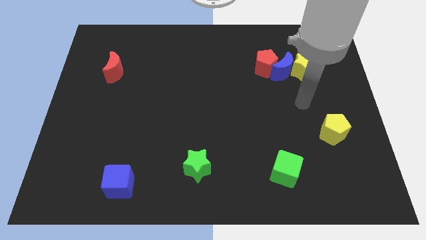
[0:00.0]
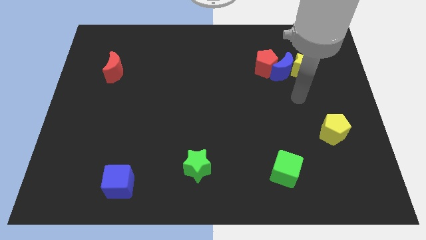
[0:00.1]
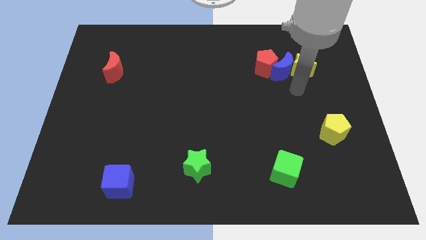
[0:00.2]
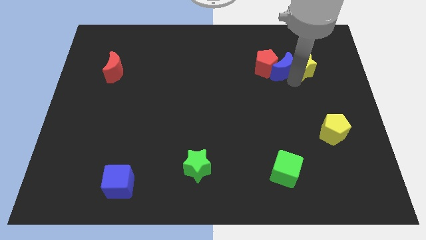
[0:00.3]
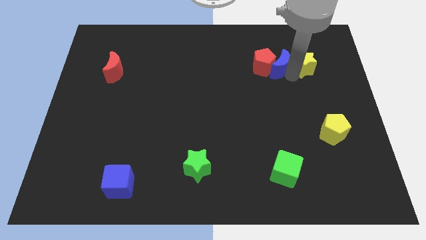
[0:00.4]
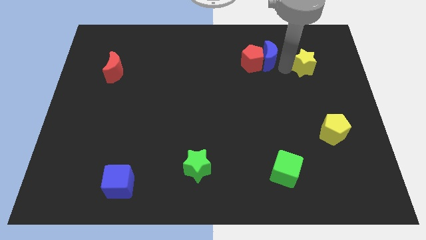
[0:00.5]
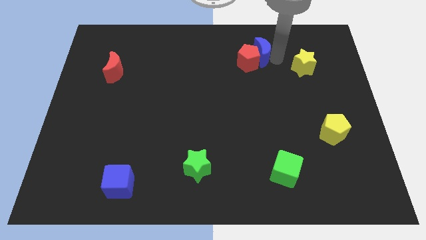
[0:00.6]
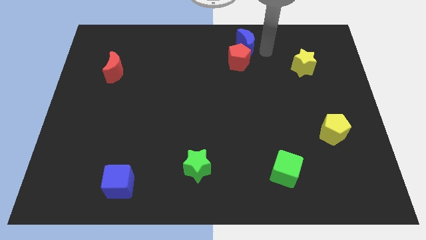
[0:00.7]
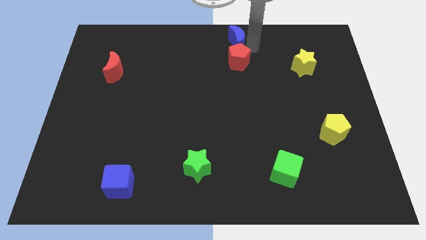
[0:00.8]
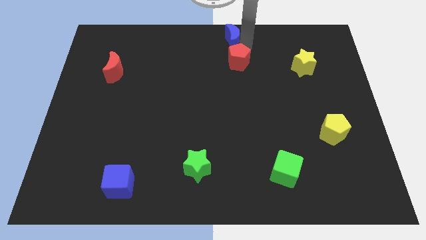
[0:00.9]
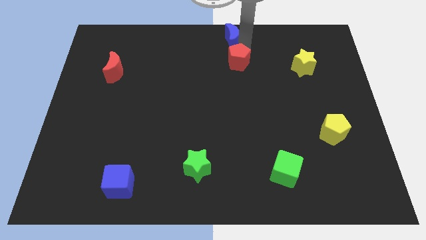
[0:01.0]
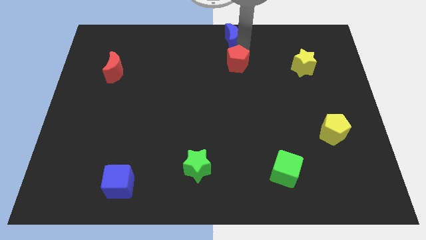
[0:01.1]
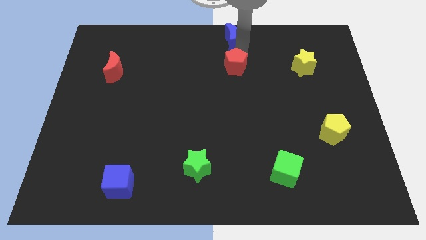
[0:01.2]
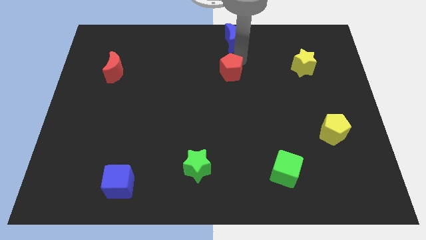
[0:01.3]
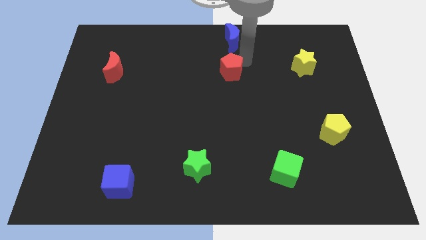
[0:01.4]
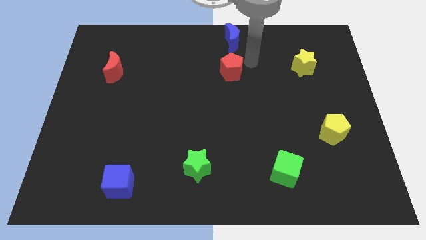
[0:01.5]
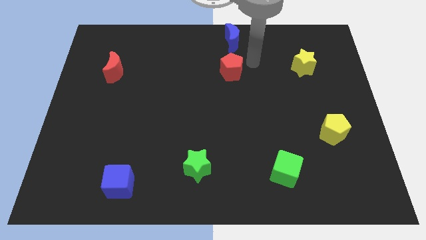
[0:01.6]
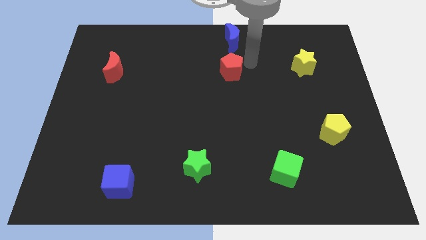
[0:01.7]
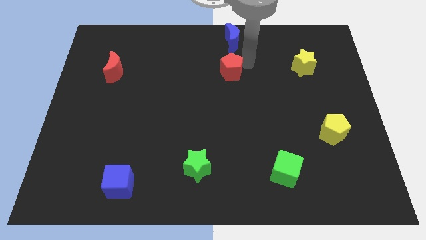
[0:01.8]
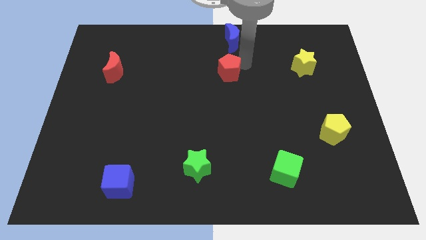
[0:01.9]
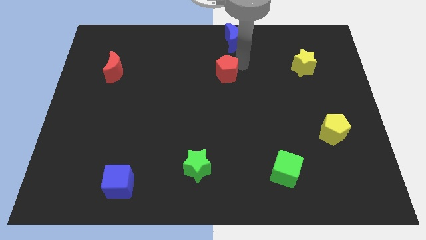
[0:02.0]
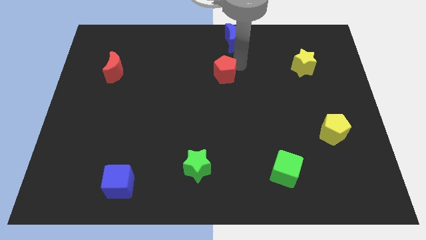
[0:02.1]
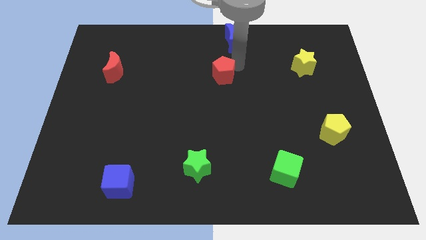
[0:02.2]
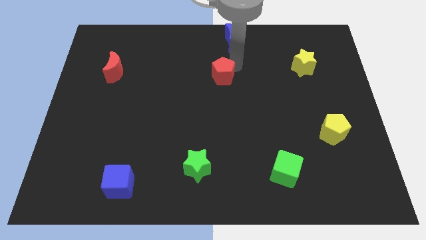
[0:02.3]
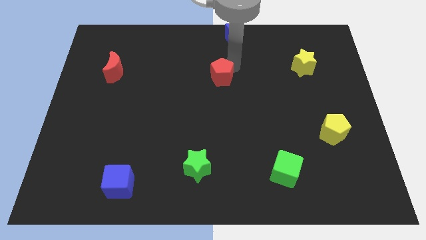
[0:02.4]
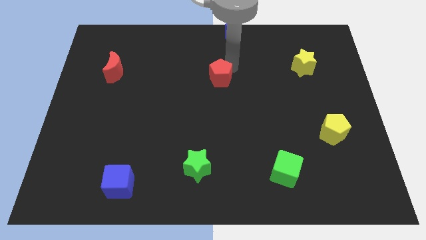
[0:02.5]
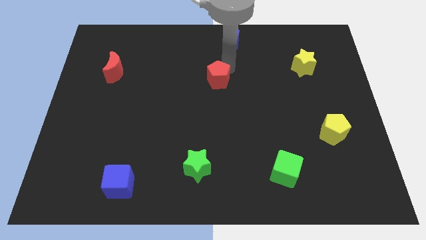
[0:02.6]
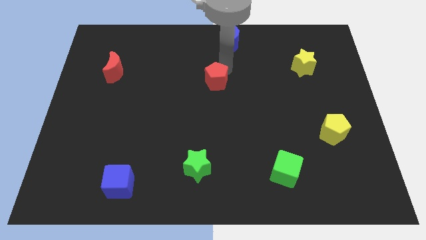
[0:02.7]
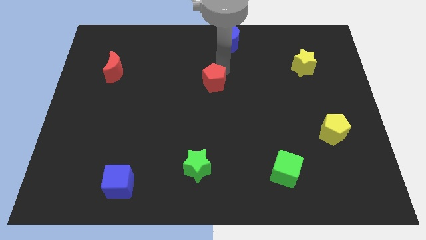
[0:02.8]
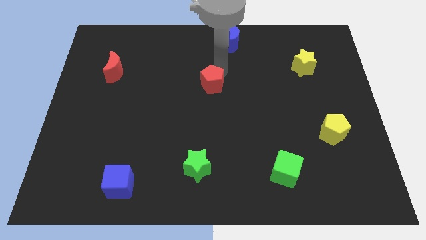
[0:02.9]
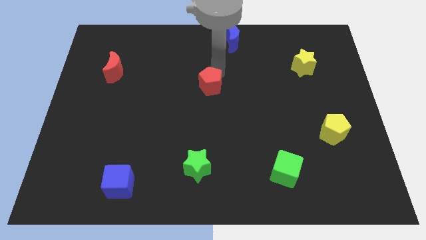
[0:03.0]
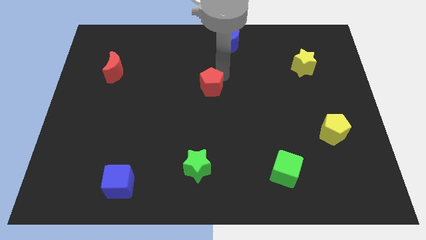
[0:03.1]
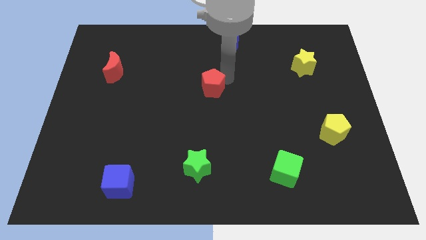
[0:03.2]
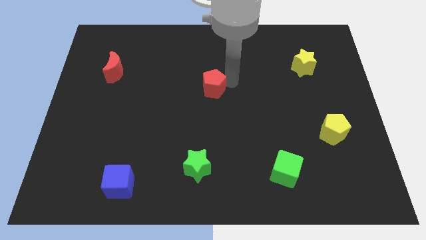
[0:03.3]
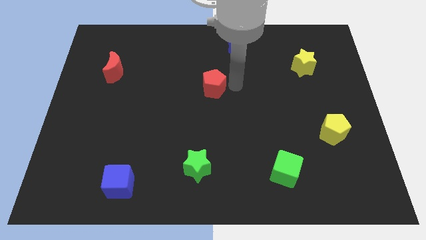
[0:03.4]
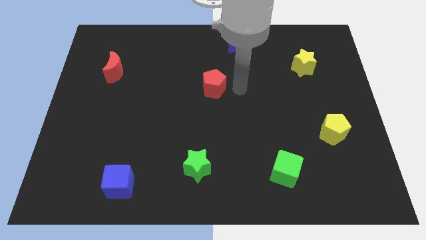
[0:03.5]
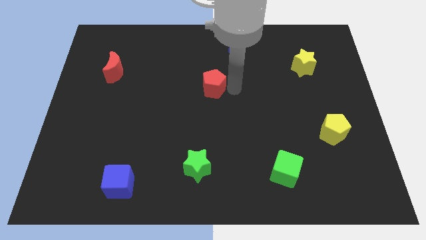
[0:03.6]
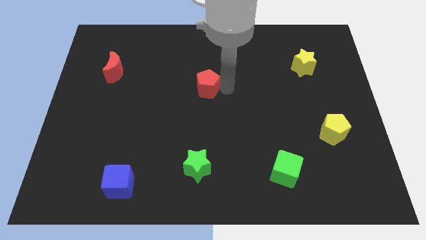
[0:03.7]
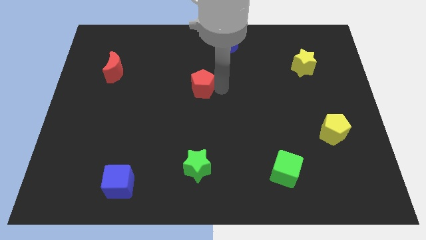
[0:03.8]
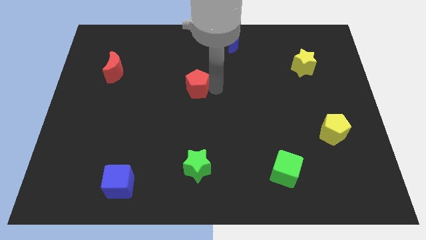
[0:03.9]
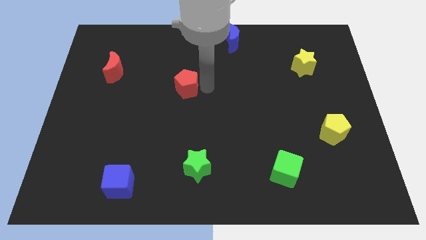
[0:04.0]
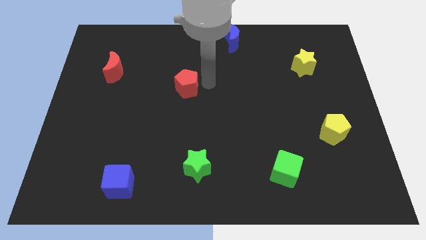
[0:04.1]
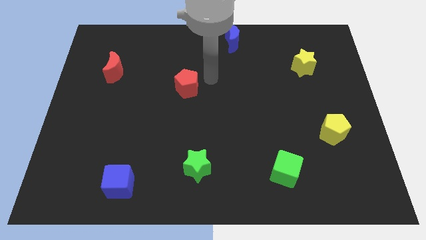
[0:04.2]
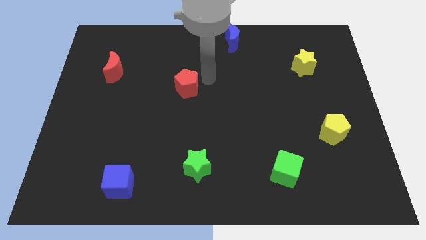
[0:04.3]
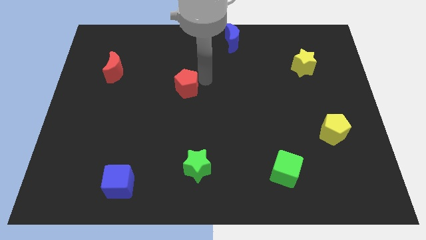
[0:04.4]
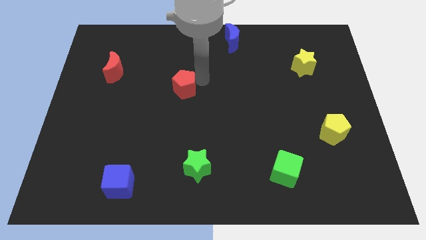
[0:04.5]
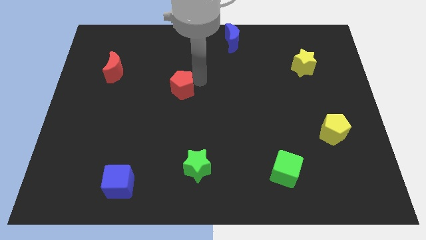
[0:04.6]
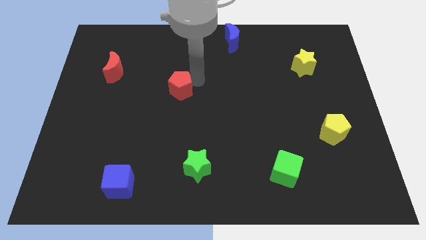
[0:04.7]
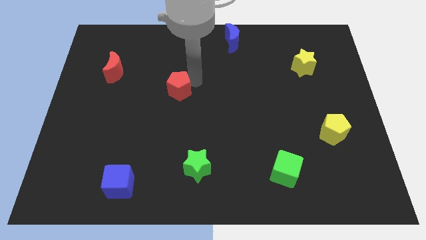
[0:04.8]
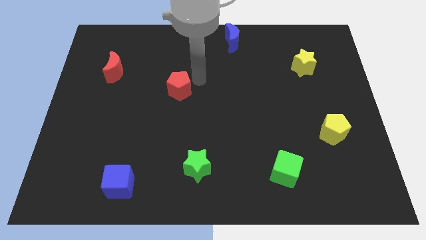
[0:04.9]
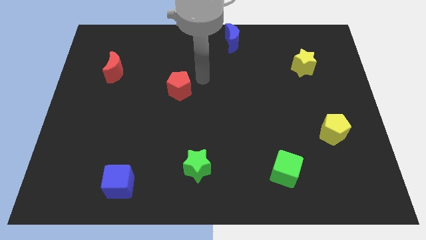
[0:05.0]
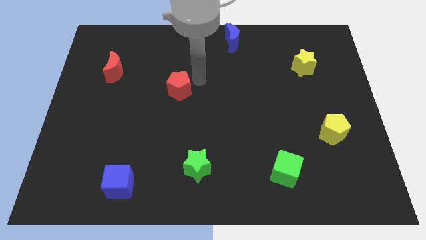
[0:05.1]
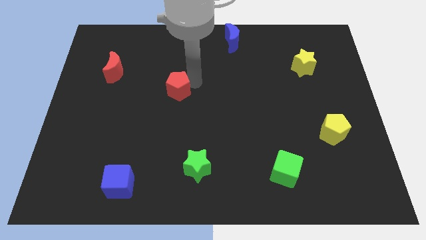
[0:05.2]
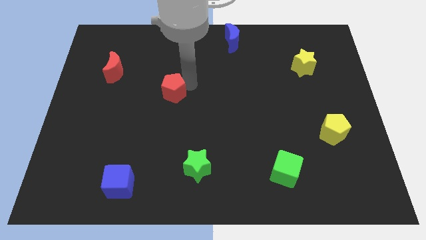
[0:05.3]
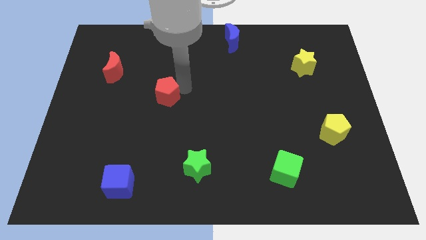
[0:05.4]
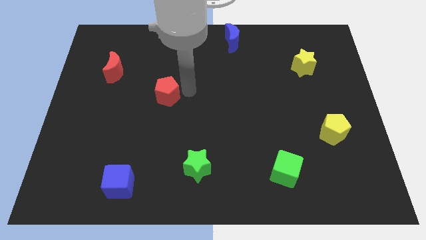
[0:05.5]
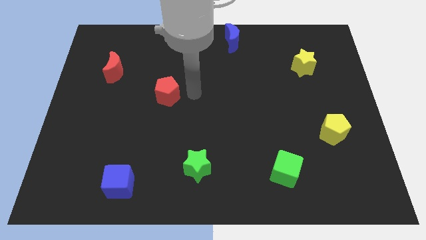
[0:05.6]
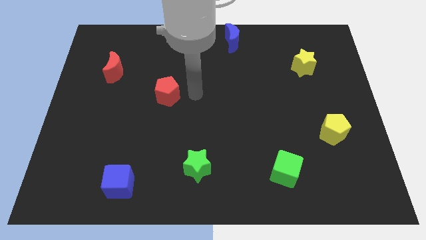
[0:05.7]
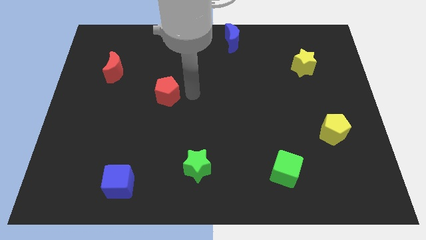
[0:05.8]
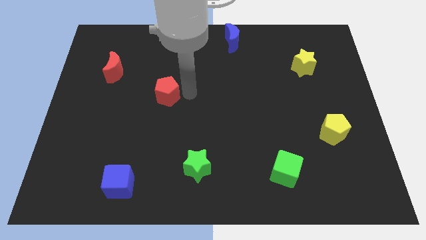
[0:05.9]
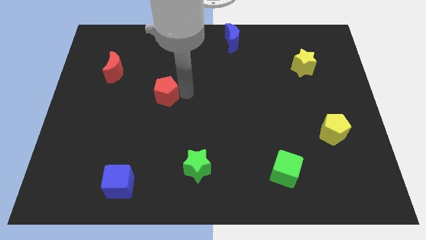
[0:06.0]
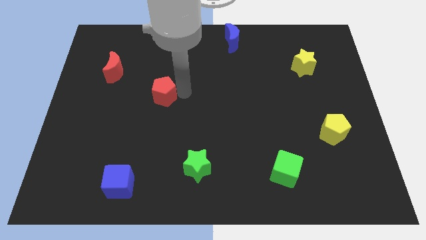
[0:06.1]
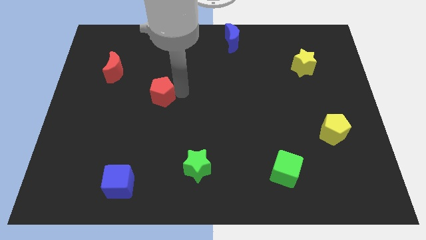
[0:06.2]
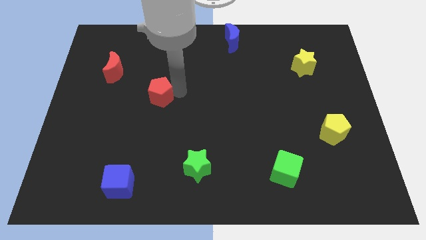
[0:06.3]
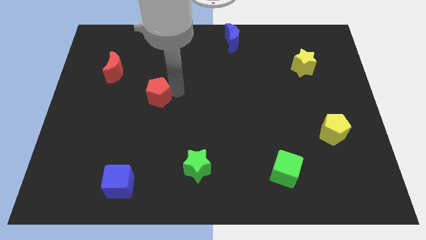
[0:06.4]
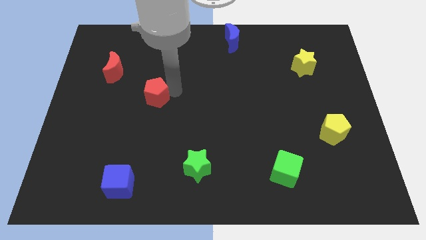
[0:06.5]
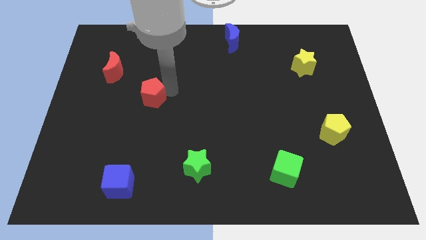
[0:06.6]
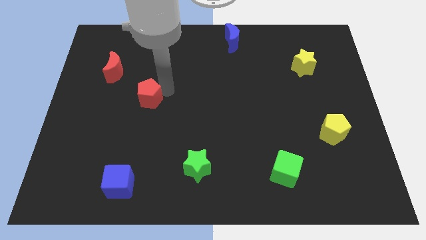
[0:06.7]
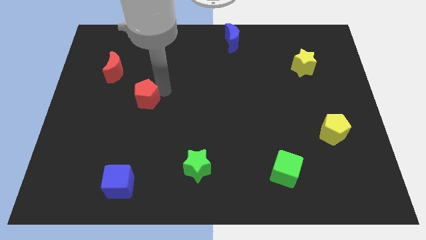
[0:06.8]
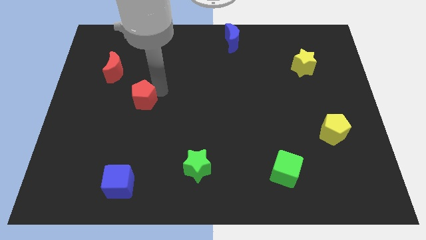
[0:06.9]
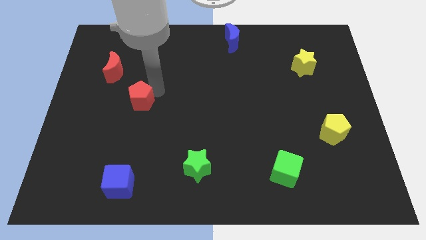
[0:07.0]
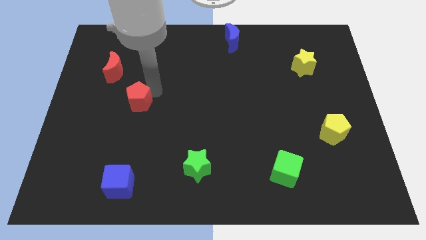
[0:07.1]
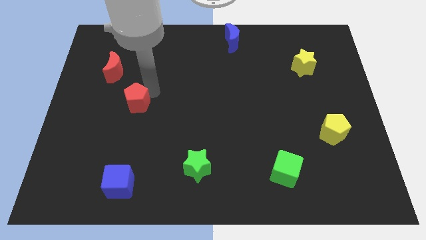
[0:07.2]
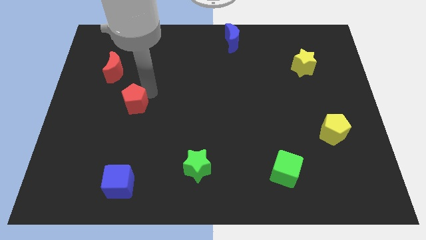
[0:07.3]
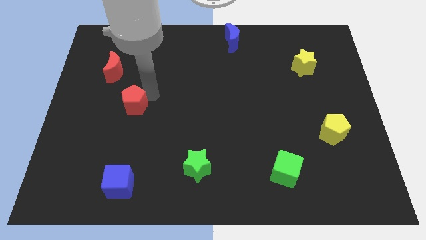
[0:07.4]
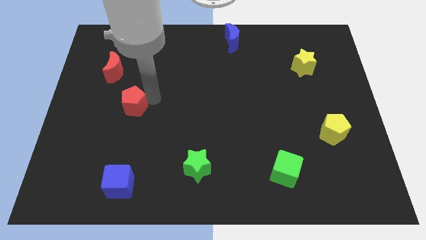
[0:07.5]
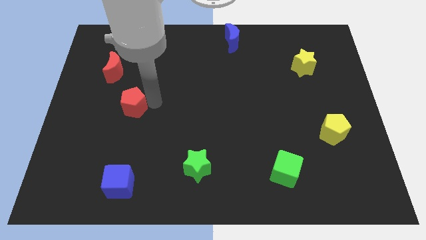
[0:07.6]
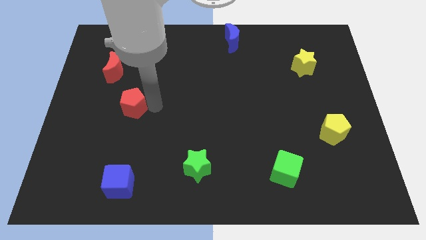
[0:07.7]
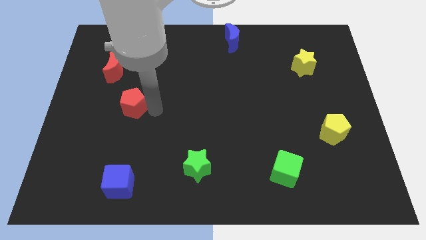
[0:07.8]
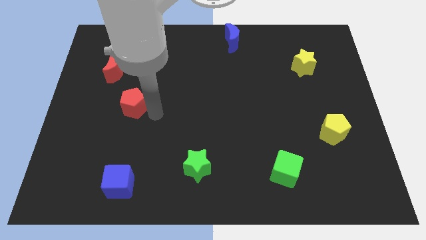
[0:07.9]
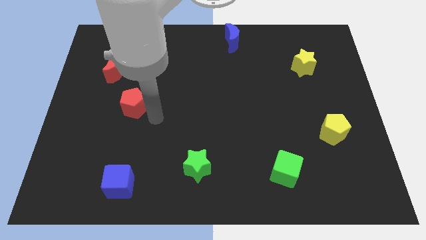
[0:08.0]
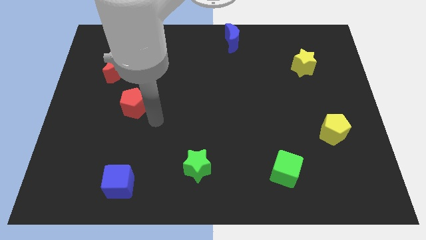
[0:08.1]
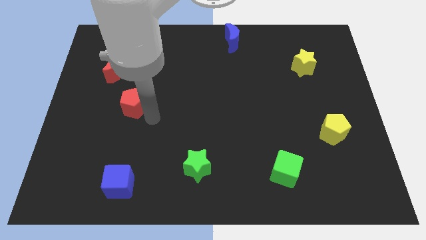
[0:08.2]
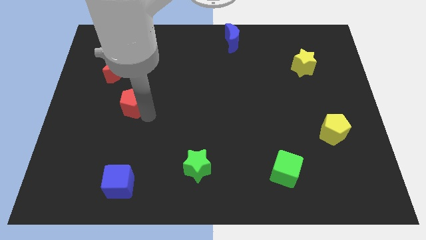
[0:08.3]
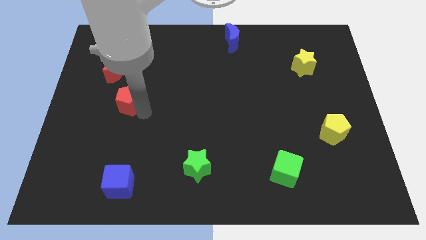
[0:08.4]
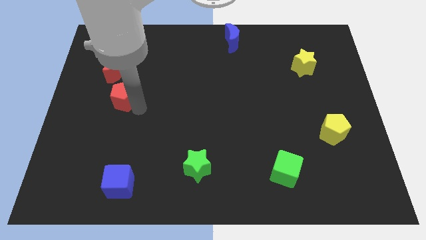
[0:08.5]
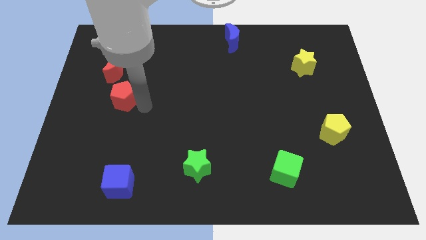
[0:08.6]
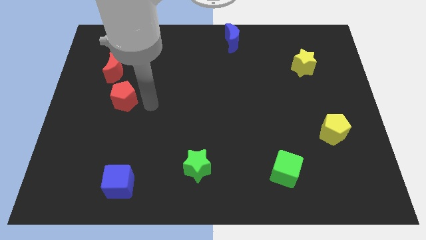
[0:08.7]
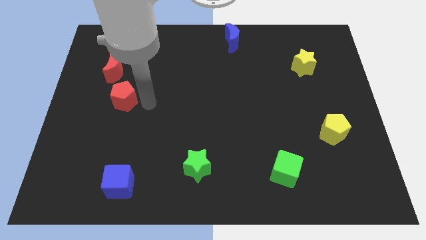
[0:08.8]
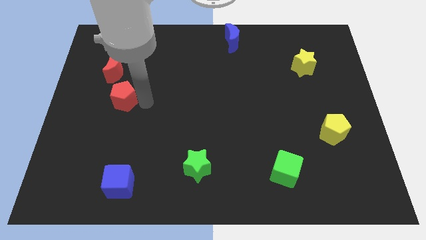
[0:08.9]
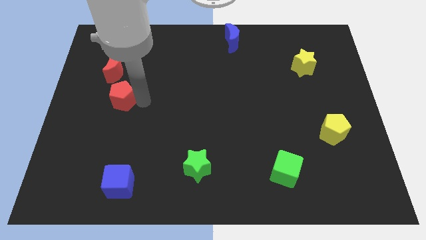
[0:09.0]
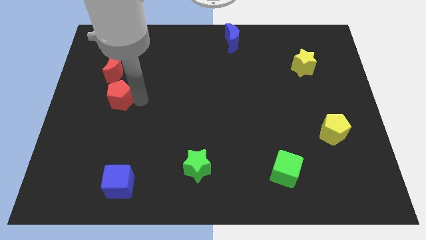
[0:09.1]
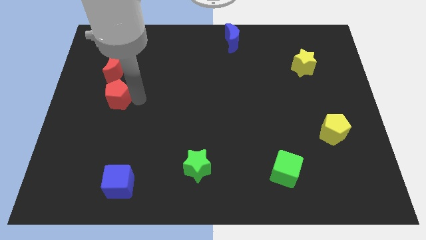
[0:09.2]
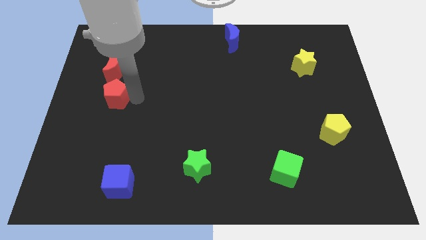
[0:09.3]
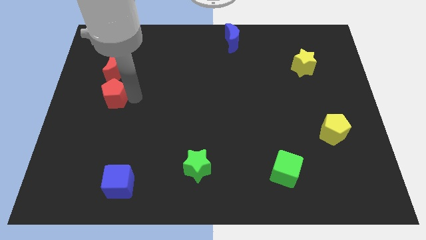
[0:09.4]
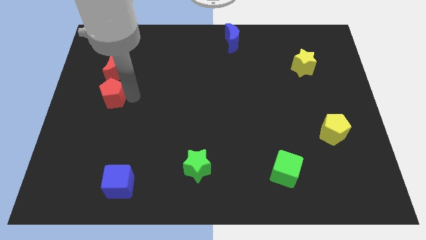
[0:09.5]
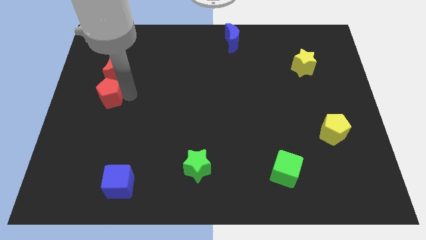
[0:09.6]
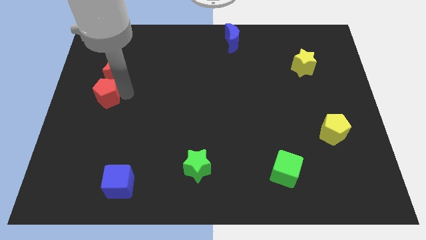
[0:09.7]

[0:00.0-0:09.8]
put the red pentagon to the center left
